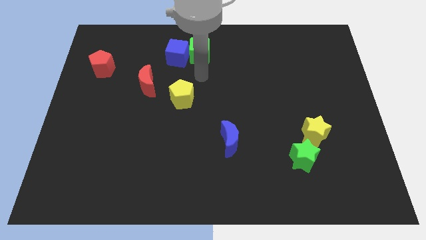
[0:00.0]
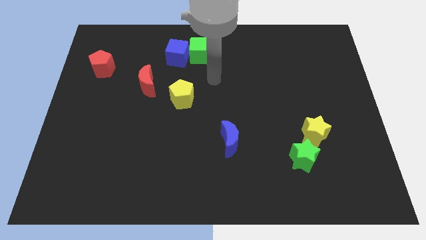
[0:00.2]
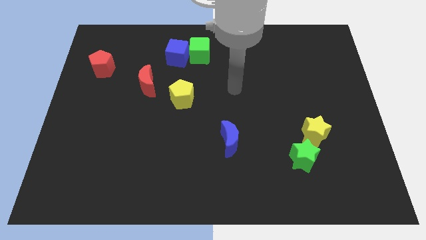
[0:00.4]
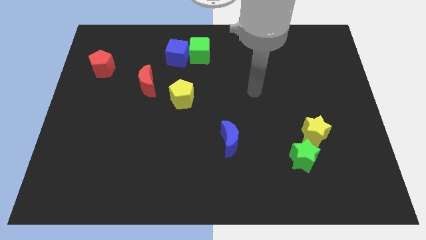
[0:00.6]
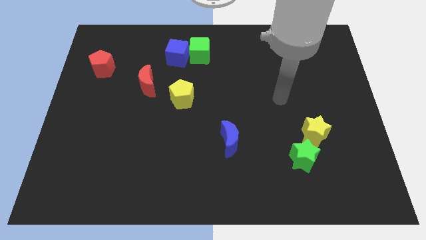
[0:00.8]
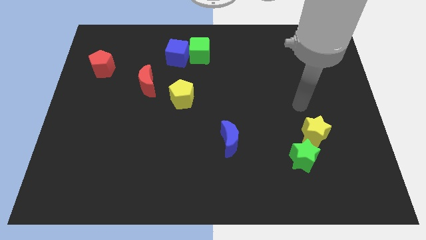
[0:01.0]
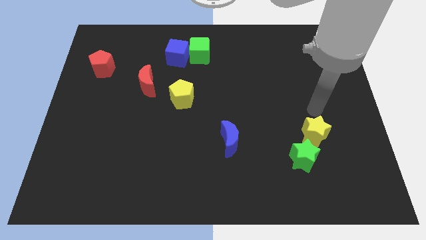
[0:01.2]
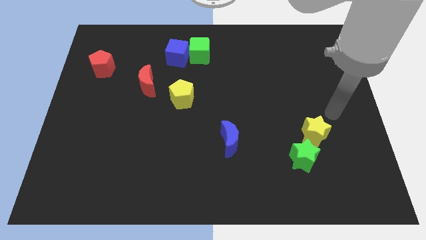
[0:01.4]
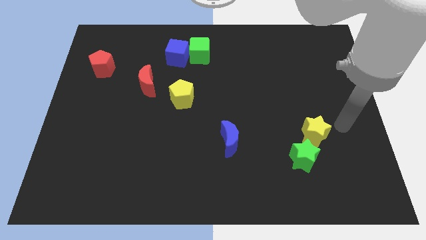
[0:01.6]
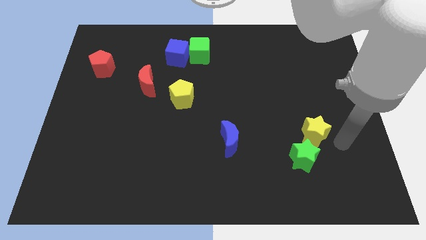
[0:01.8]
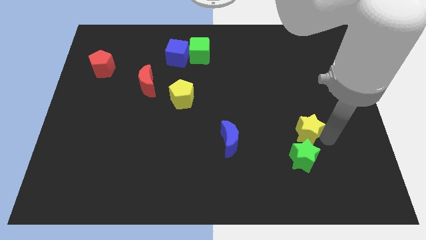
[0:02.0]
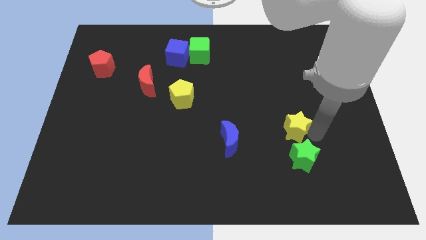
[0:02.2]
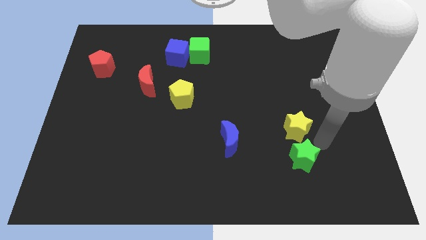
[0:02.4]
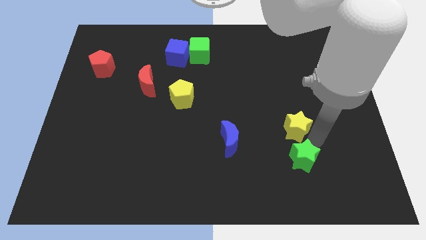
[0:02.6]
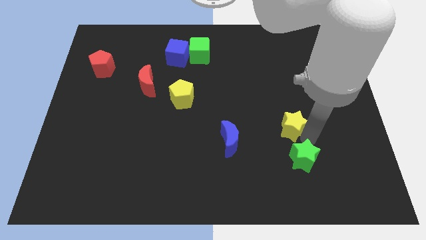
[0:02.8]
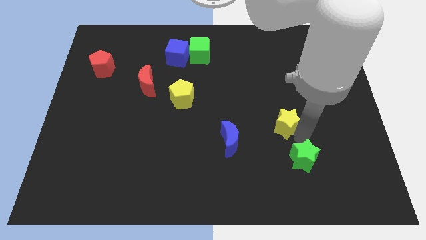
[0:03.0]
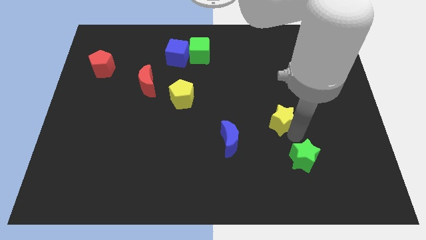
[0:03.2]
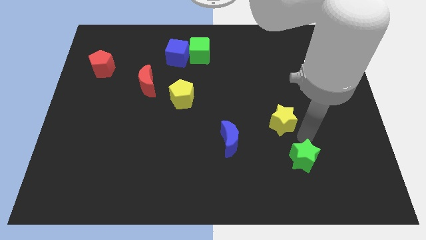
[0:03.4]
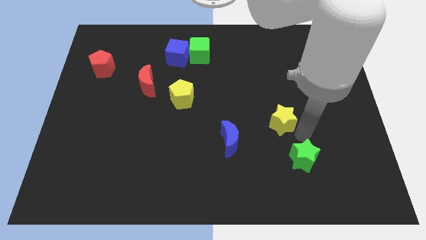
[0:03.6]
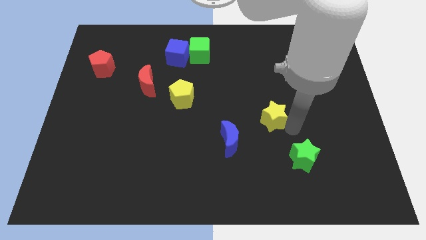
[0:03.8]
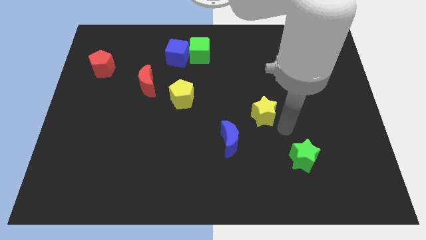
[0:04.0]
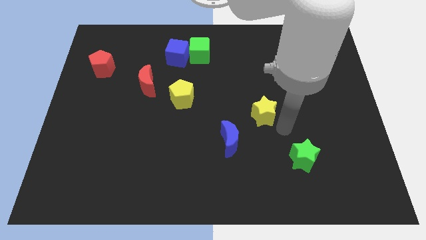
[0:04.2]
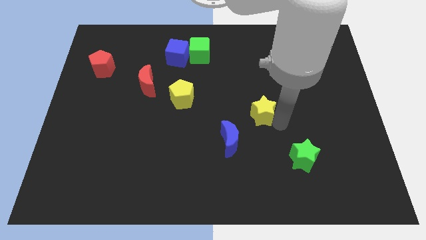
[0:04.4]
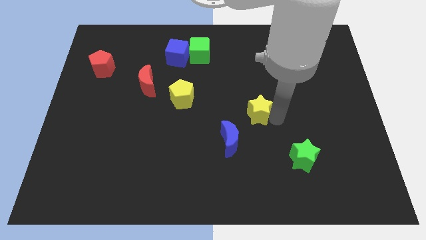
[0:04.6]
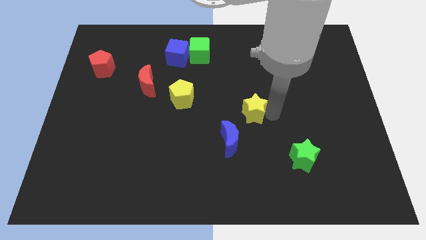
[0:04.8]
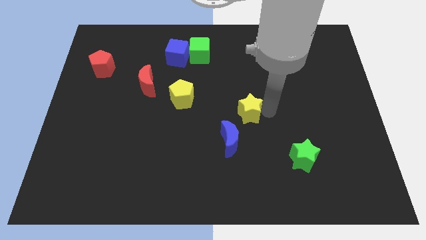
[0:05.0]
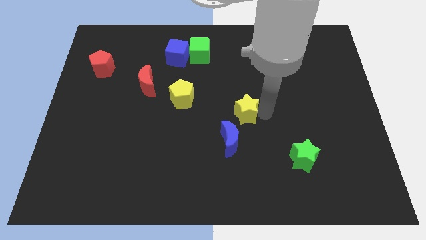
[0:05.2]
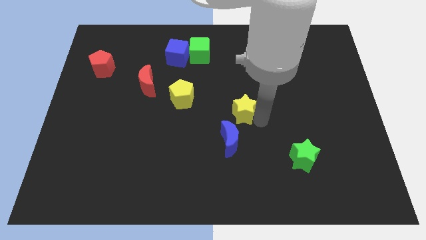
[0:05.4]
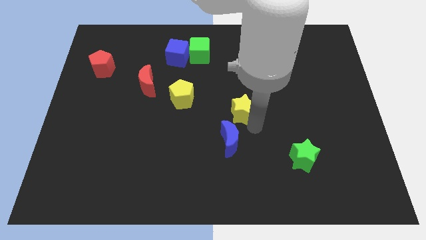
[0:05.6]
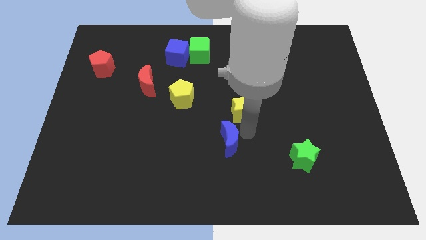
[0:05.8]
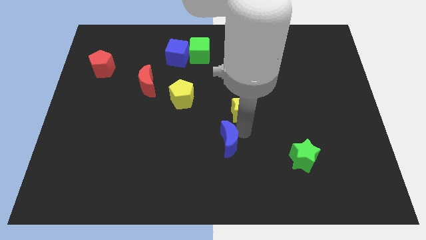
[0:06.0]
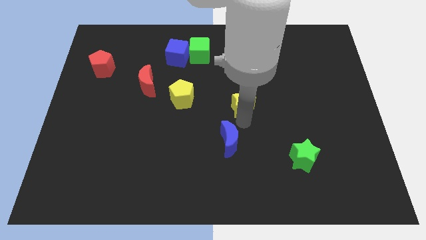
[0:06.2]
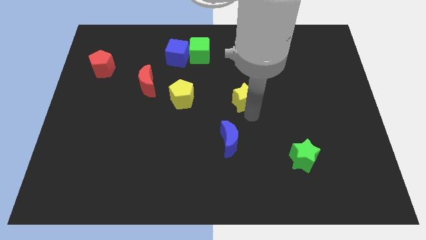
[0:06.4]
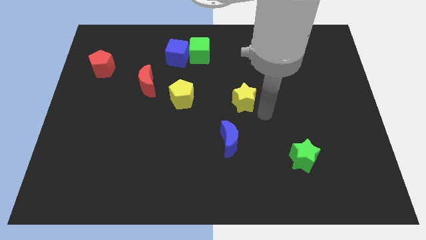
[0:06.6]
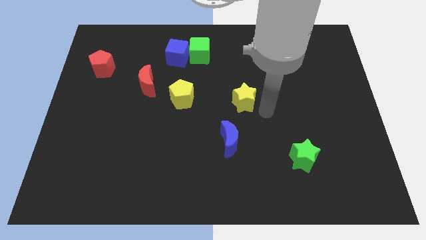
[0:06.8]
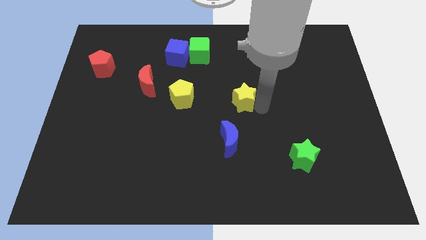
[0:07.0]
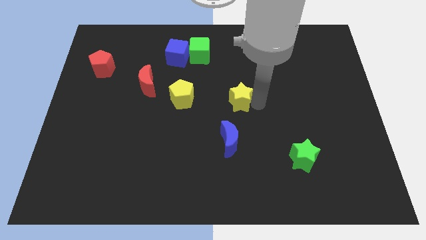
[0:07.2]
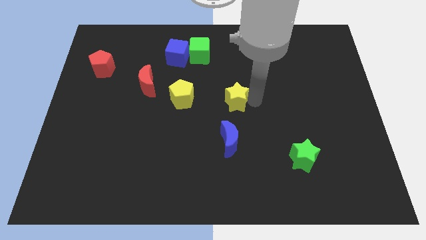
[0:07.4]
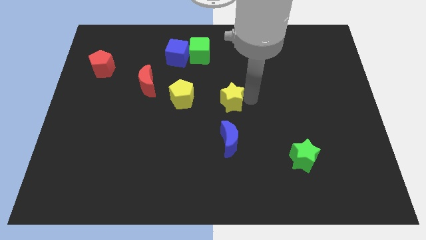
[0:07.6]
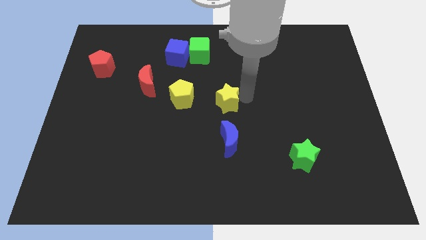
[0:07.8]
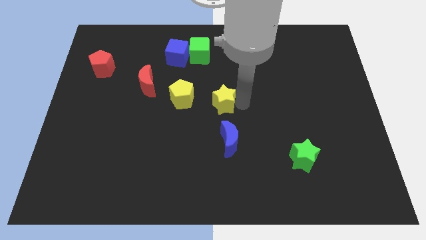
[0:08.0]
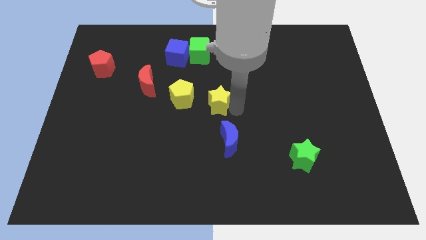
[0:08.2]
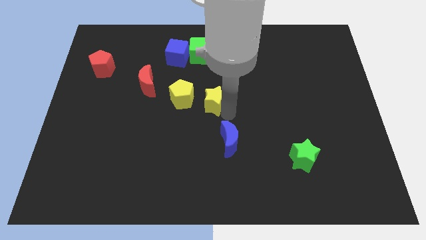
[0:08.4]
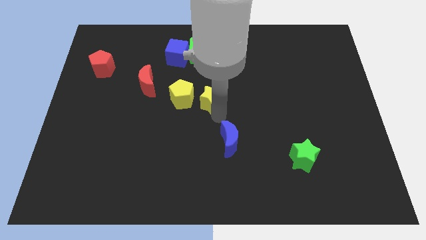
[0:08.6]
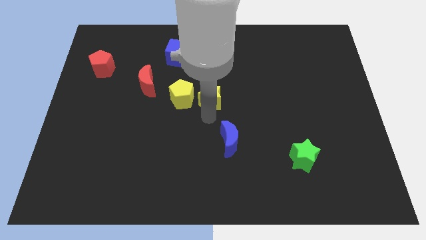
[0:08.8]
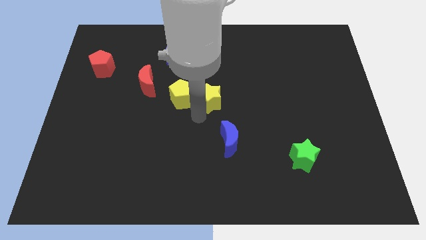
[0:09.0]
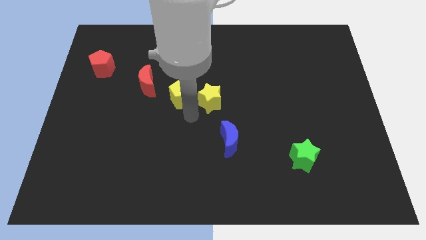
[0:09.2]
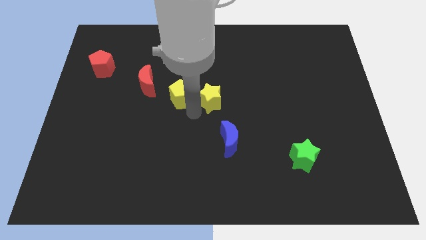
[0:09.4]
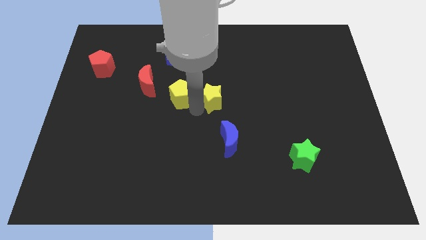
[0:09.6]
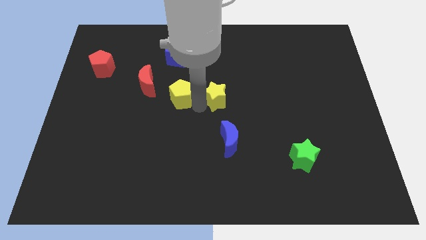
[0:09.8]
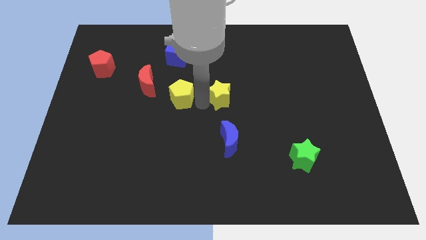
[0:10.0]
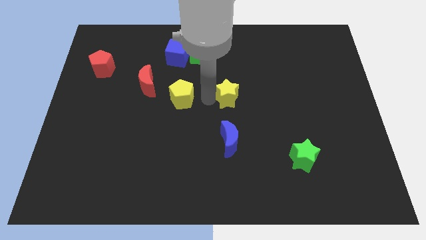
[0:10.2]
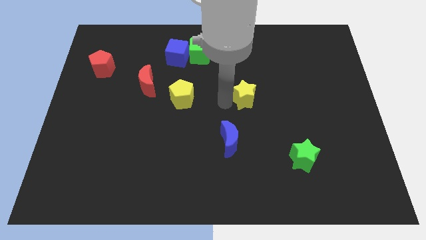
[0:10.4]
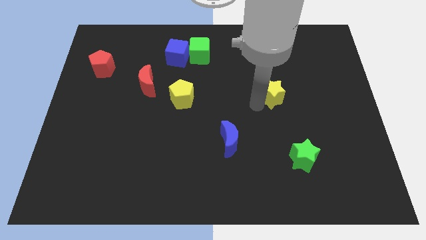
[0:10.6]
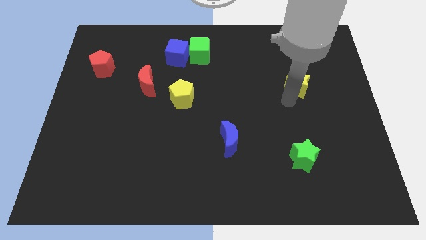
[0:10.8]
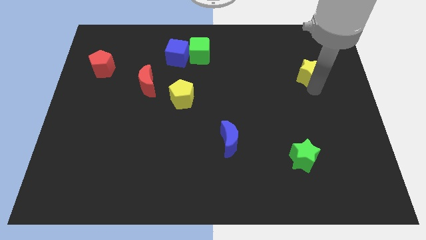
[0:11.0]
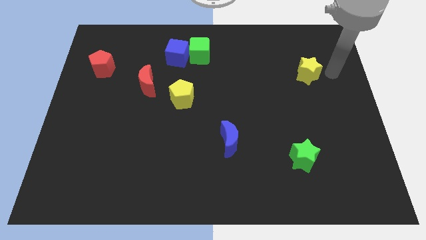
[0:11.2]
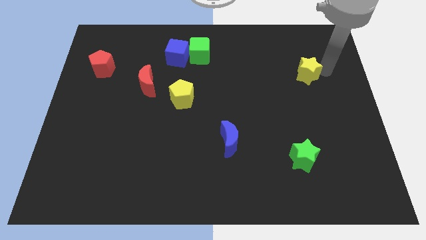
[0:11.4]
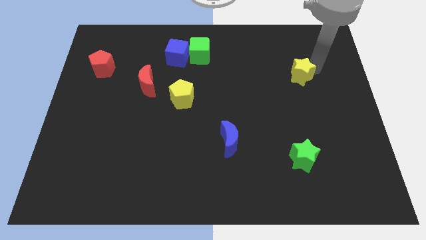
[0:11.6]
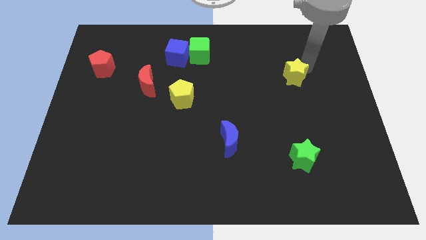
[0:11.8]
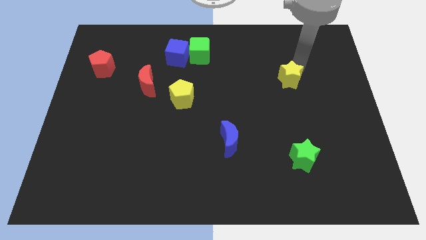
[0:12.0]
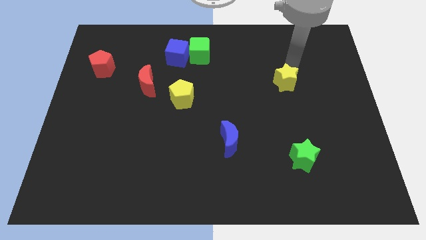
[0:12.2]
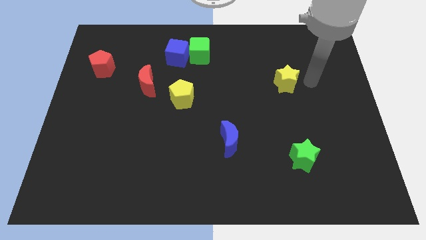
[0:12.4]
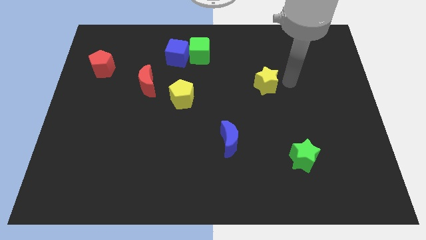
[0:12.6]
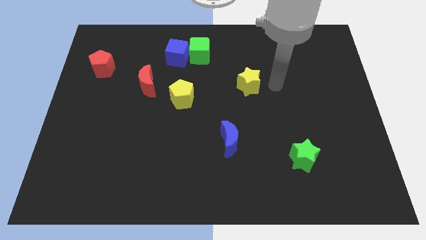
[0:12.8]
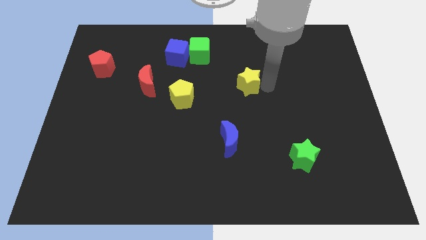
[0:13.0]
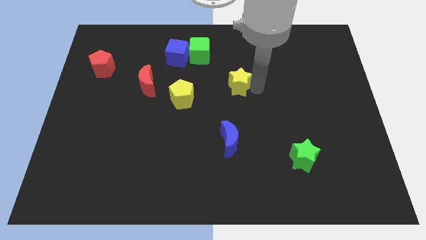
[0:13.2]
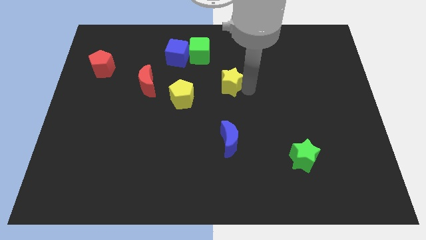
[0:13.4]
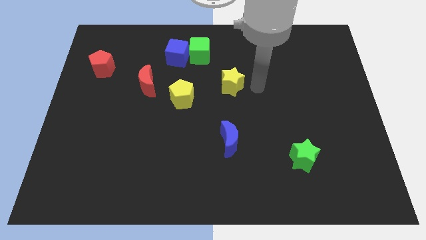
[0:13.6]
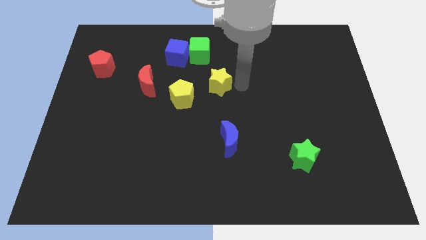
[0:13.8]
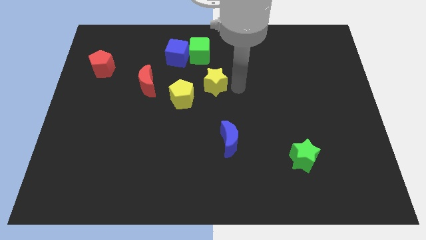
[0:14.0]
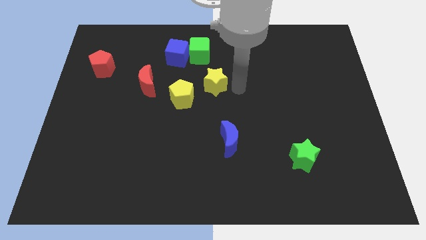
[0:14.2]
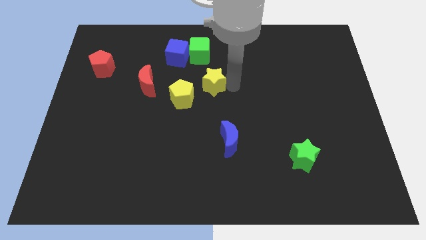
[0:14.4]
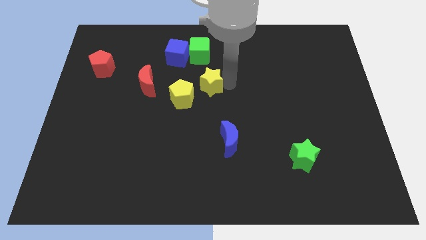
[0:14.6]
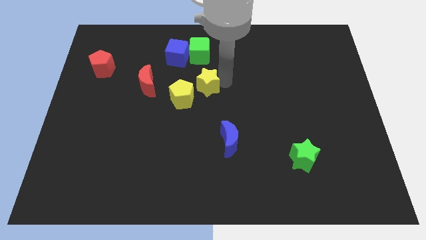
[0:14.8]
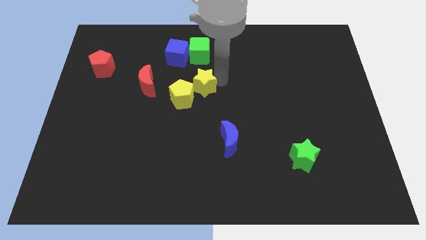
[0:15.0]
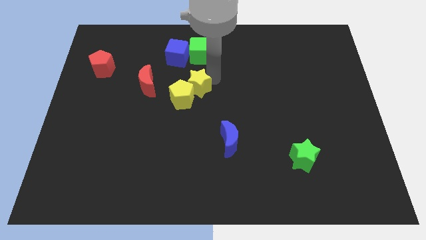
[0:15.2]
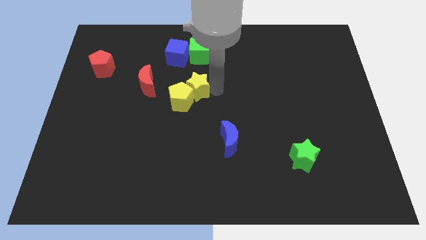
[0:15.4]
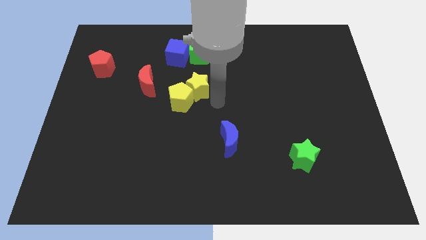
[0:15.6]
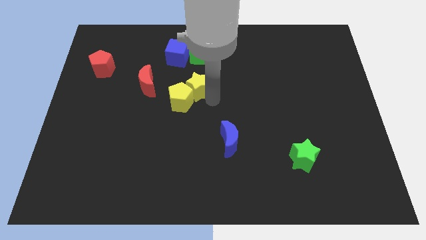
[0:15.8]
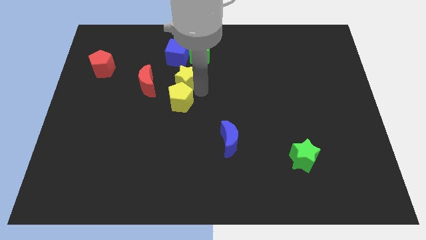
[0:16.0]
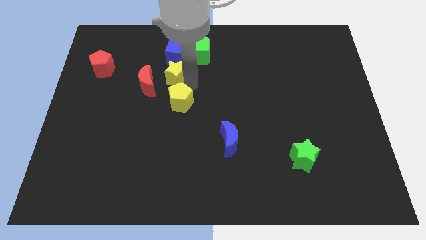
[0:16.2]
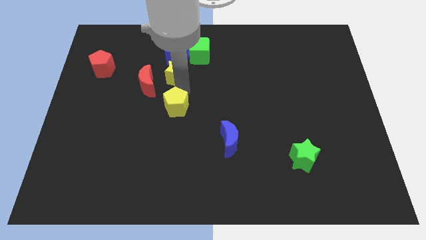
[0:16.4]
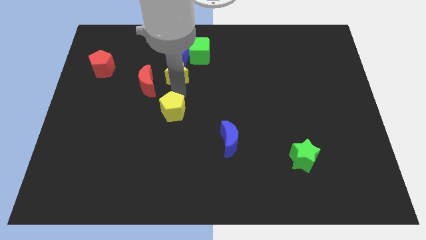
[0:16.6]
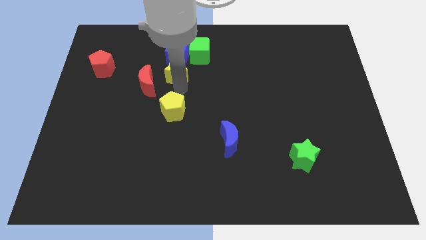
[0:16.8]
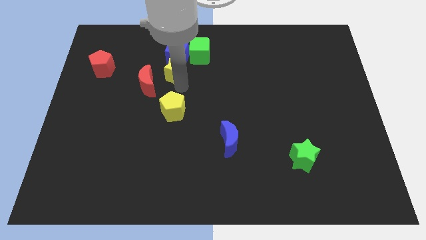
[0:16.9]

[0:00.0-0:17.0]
move the yellow star next to the blue cube
